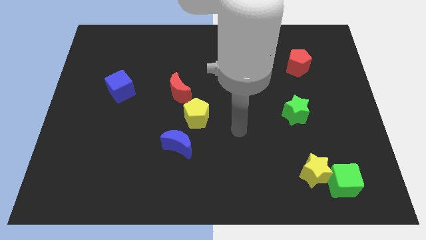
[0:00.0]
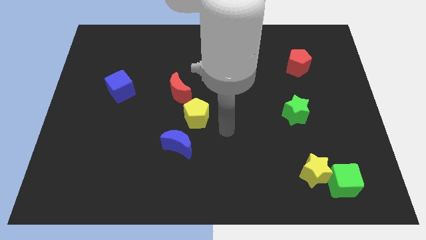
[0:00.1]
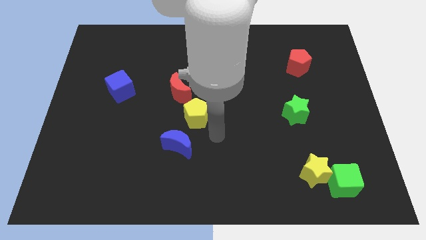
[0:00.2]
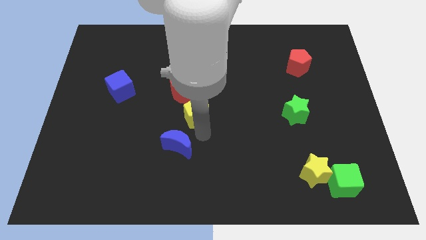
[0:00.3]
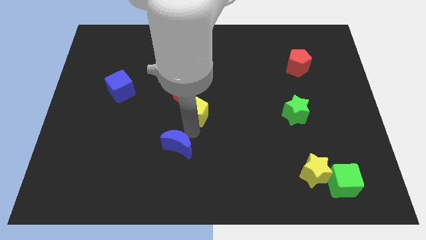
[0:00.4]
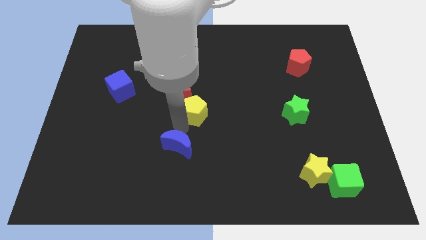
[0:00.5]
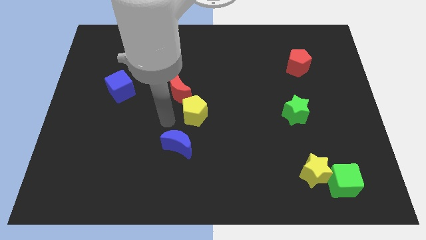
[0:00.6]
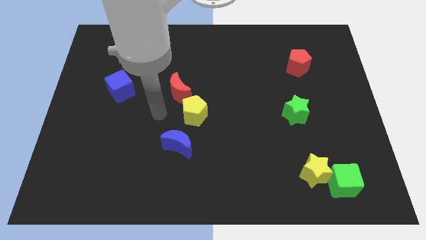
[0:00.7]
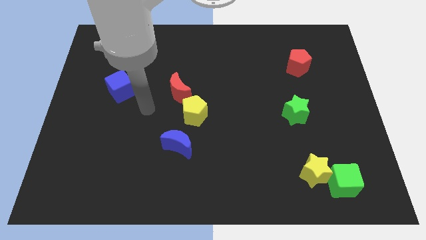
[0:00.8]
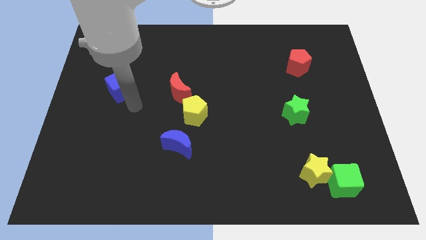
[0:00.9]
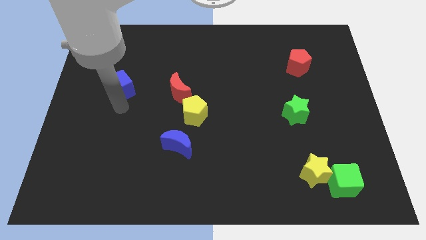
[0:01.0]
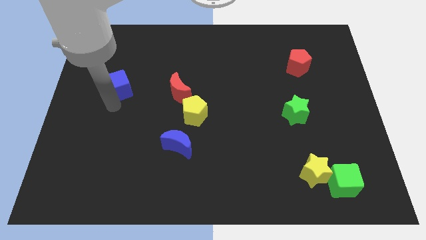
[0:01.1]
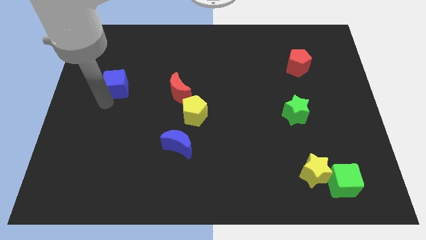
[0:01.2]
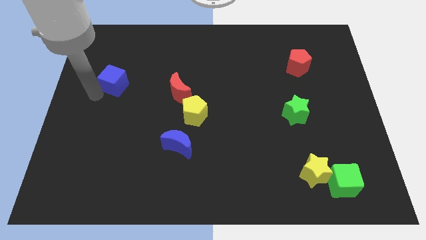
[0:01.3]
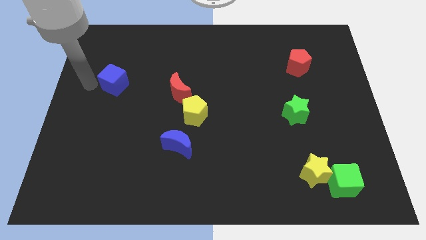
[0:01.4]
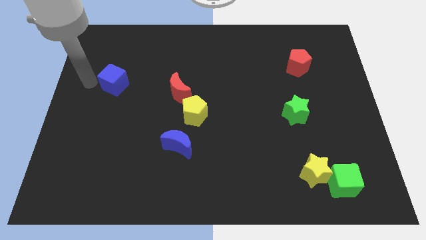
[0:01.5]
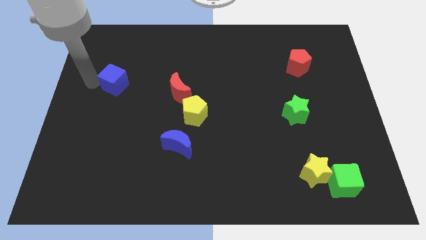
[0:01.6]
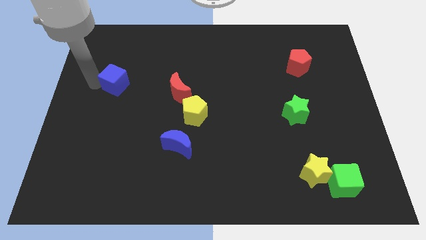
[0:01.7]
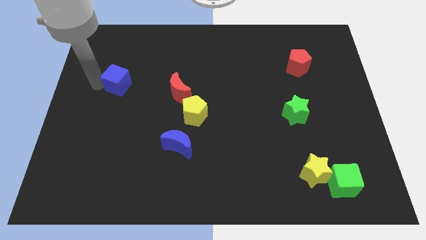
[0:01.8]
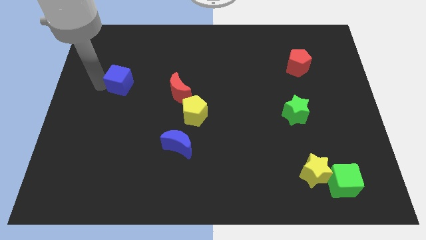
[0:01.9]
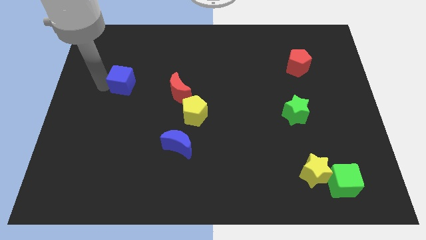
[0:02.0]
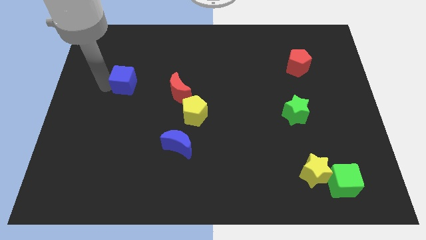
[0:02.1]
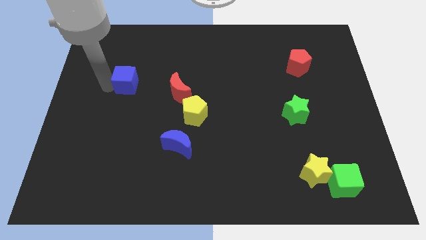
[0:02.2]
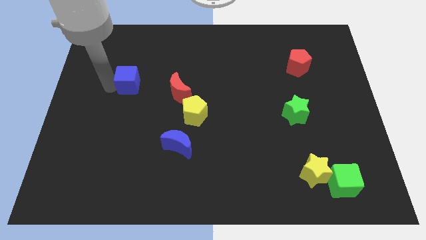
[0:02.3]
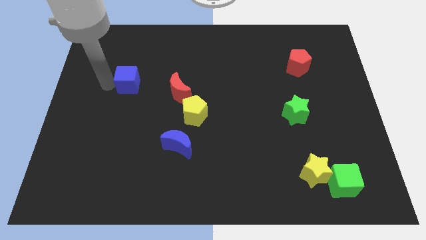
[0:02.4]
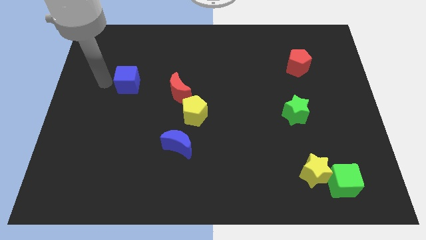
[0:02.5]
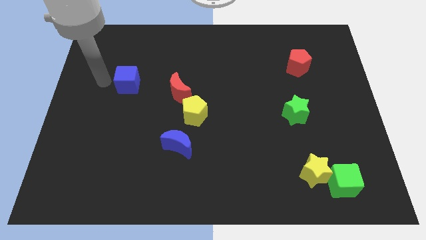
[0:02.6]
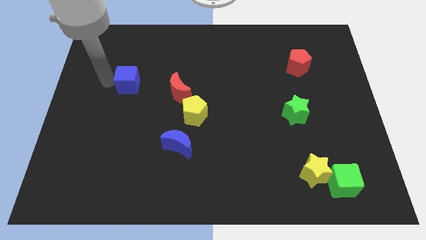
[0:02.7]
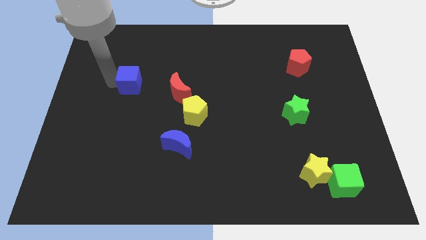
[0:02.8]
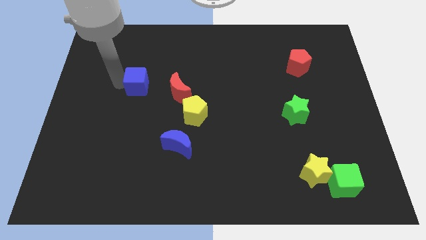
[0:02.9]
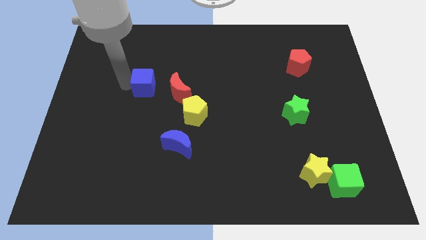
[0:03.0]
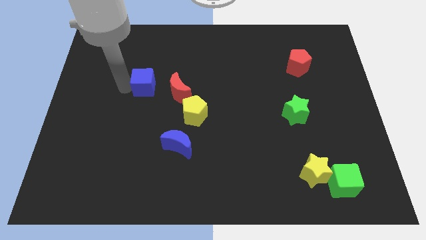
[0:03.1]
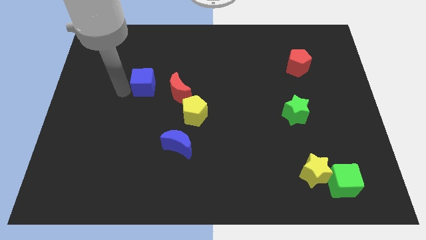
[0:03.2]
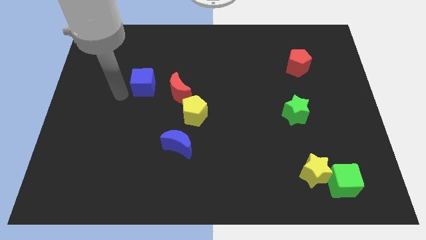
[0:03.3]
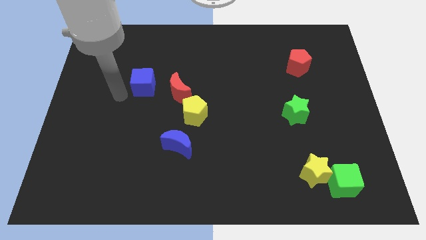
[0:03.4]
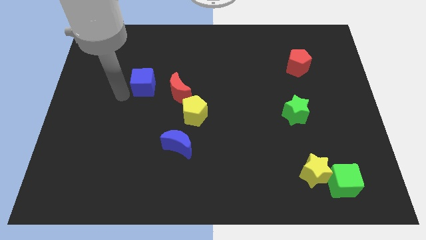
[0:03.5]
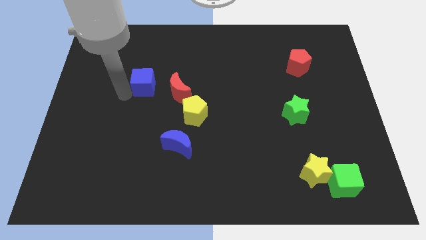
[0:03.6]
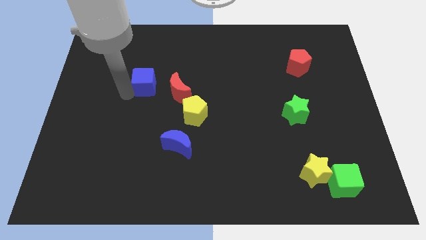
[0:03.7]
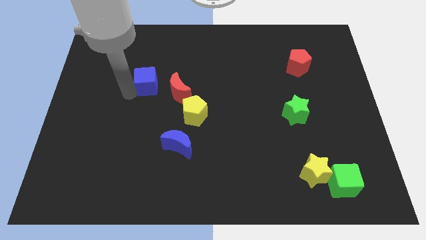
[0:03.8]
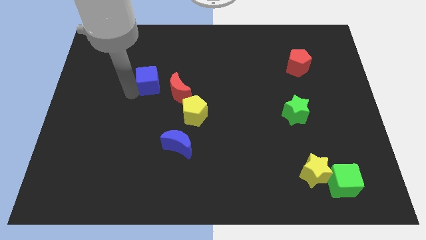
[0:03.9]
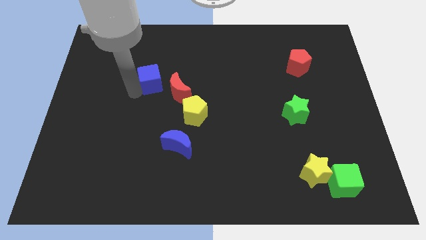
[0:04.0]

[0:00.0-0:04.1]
slide the blue cube right slightly

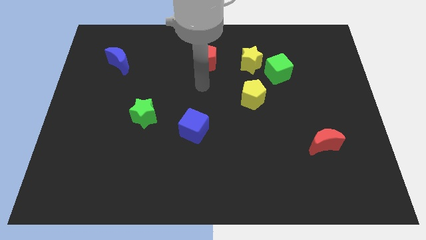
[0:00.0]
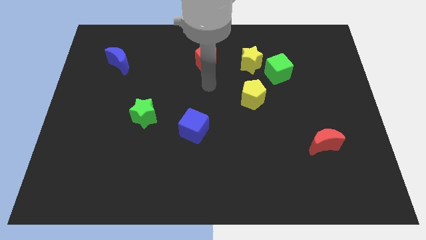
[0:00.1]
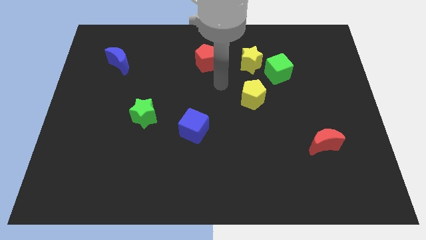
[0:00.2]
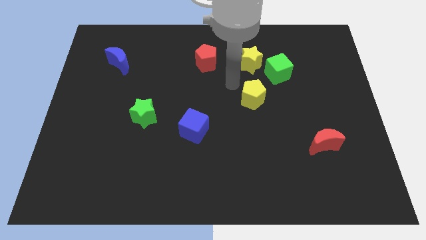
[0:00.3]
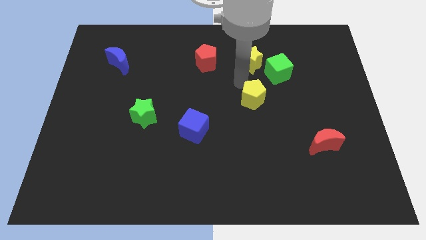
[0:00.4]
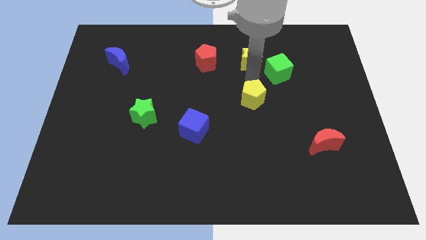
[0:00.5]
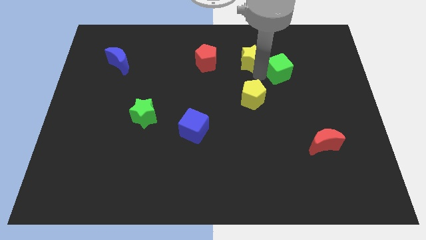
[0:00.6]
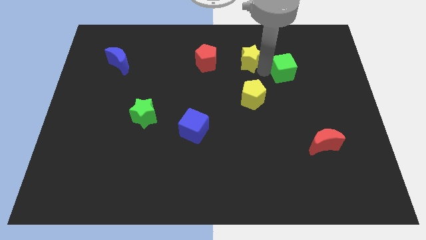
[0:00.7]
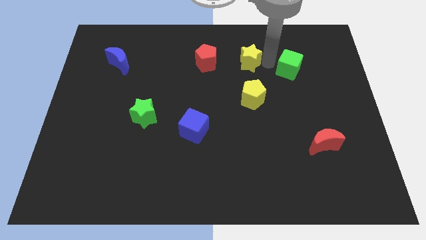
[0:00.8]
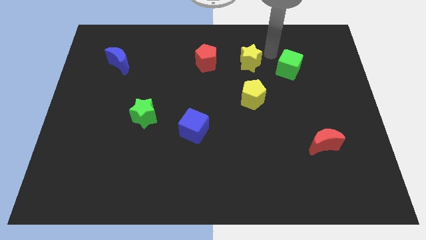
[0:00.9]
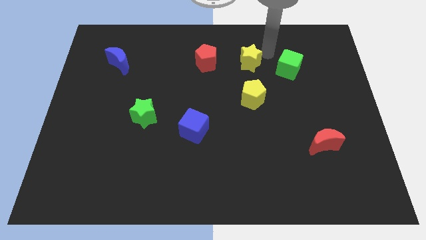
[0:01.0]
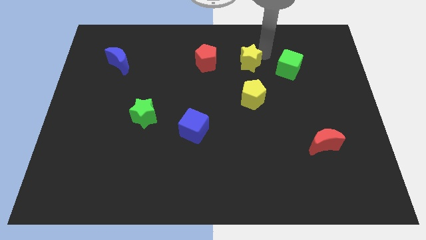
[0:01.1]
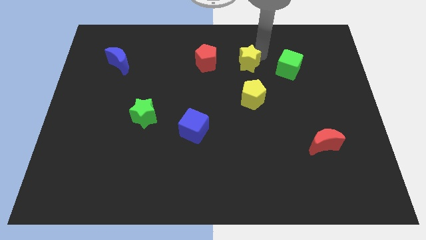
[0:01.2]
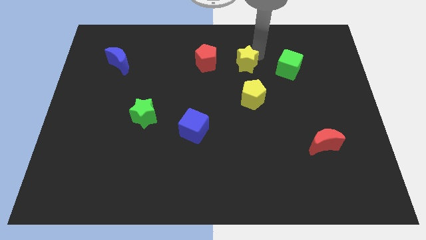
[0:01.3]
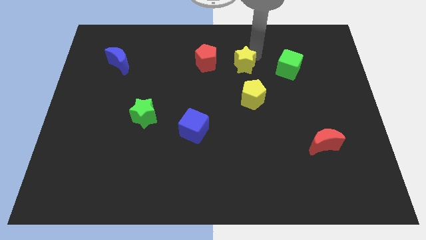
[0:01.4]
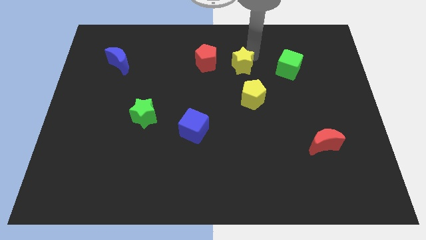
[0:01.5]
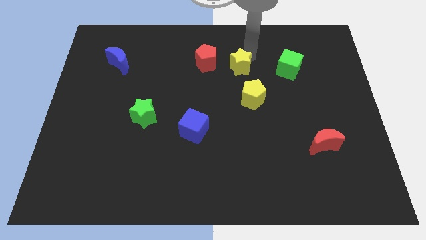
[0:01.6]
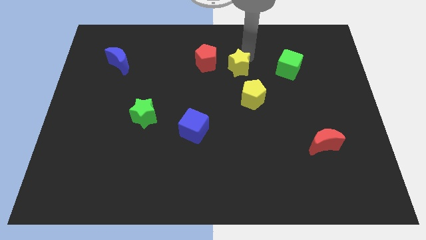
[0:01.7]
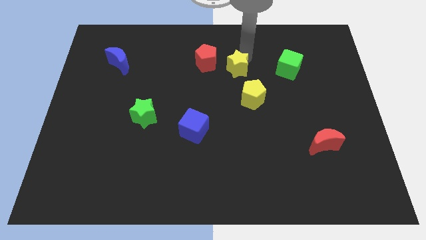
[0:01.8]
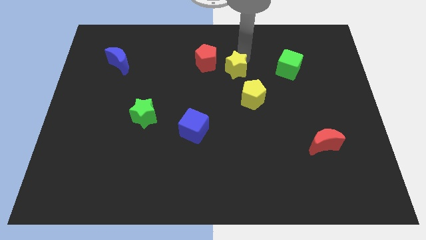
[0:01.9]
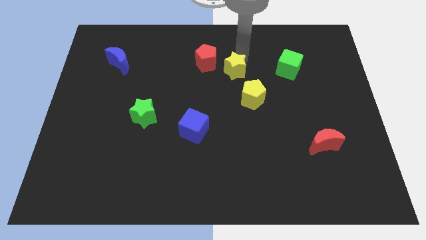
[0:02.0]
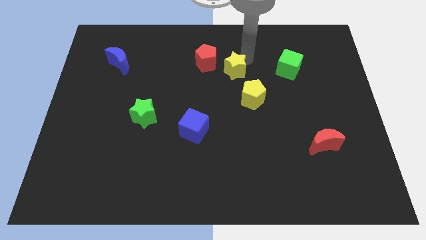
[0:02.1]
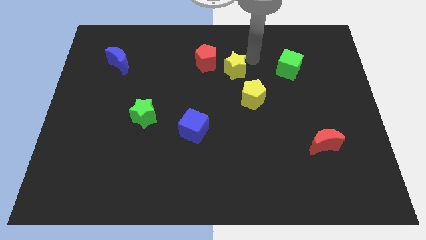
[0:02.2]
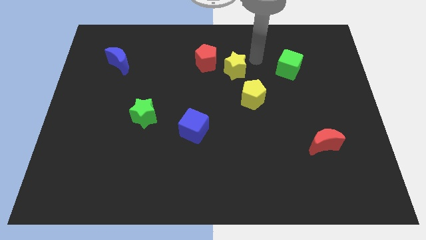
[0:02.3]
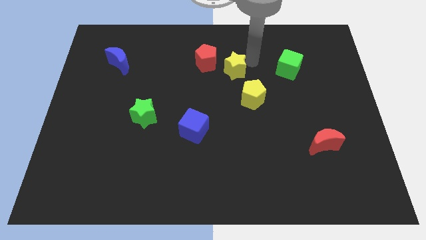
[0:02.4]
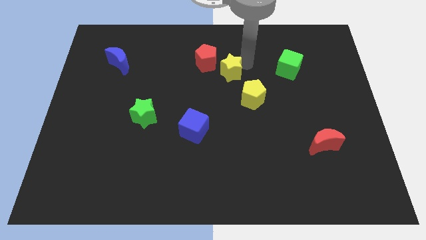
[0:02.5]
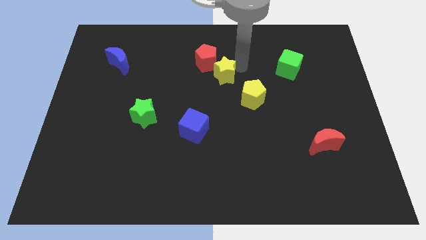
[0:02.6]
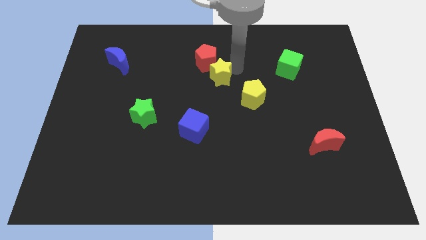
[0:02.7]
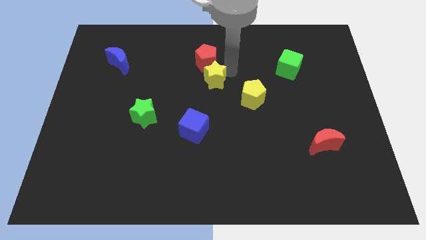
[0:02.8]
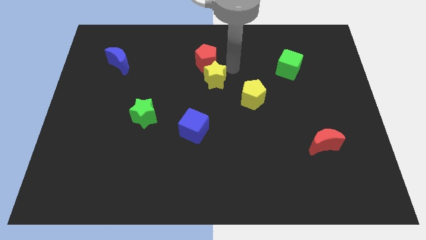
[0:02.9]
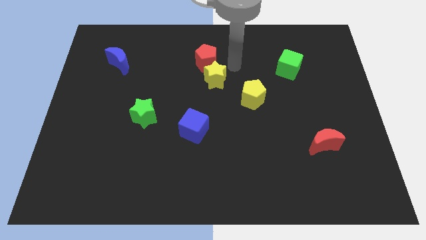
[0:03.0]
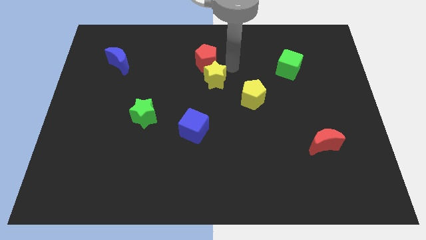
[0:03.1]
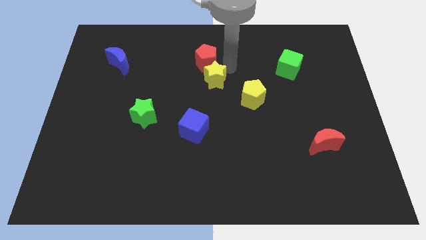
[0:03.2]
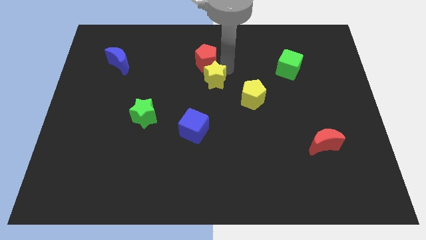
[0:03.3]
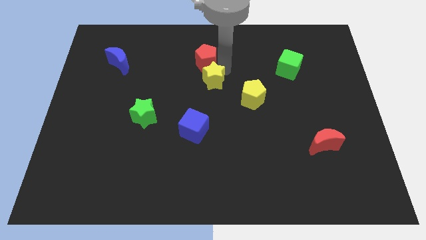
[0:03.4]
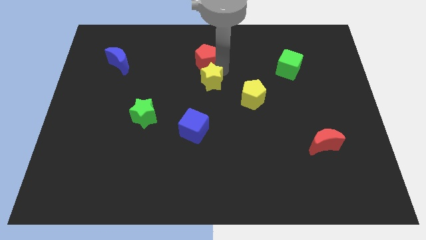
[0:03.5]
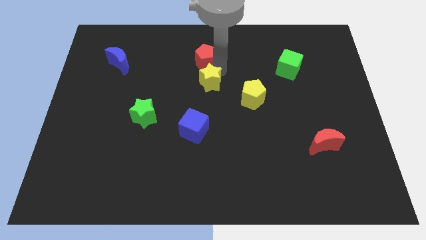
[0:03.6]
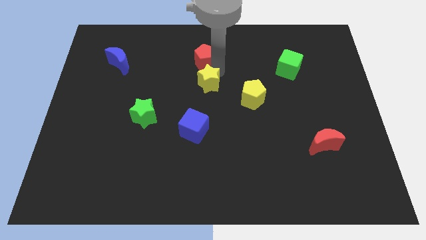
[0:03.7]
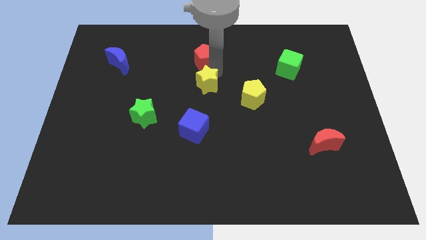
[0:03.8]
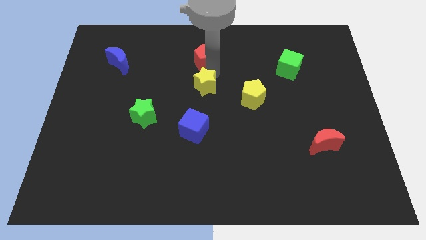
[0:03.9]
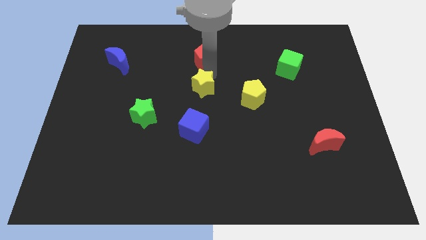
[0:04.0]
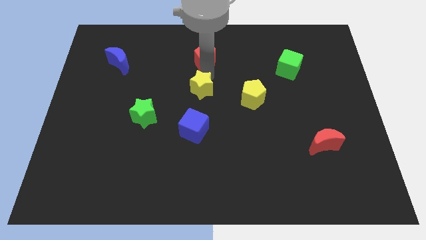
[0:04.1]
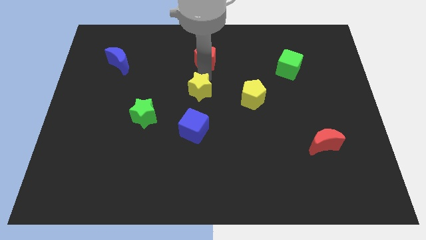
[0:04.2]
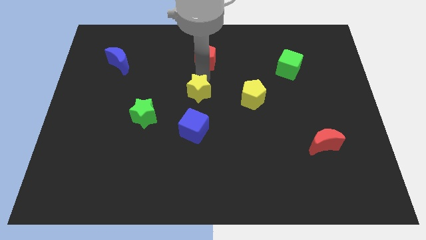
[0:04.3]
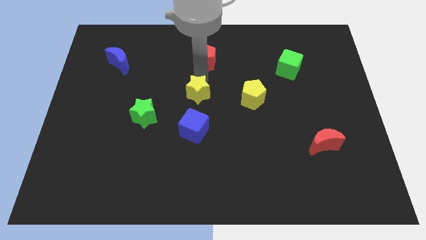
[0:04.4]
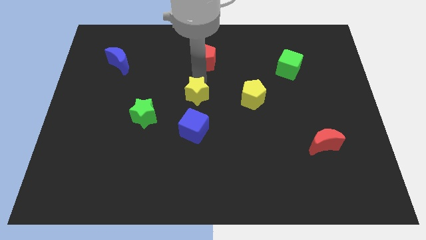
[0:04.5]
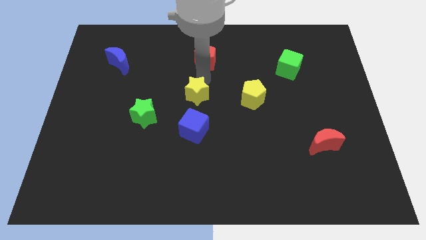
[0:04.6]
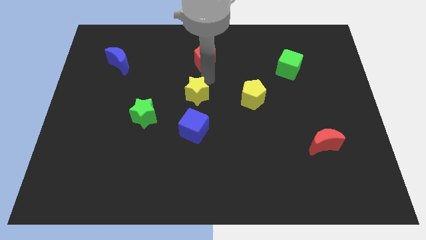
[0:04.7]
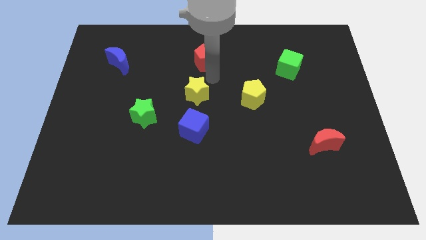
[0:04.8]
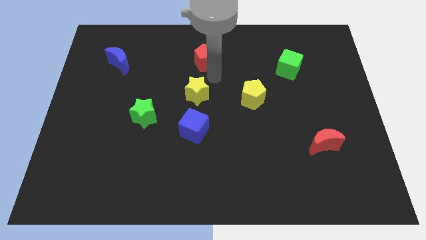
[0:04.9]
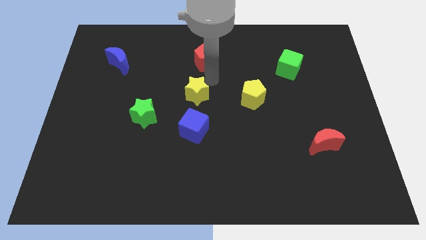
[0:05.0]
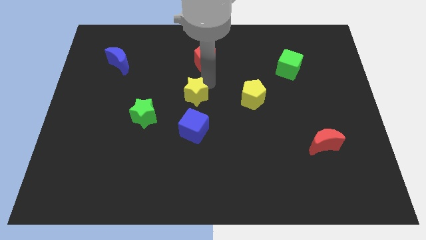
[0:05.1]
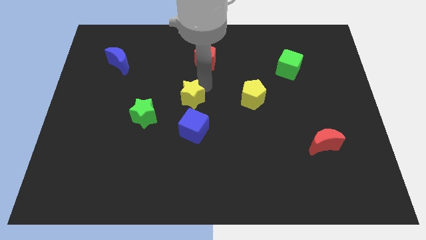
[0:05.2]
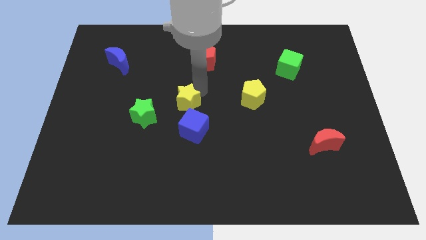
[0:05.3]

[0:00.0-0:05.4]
push the yellow star downwards and to the left diagonally
